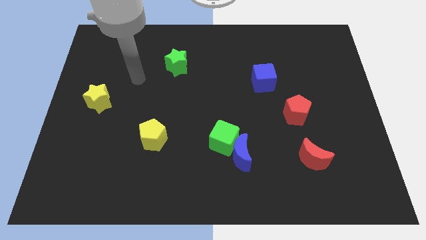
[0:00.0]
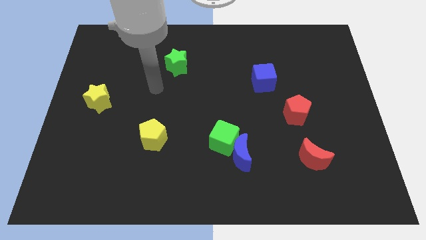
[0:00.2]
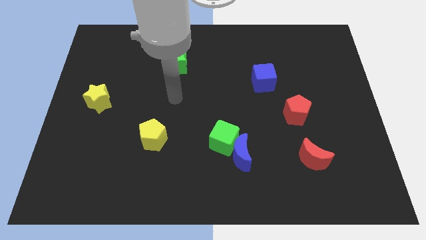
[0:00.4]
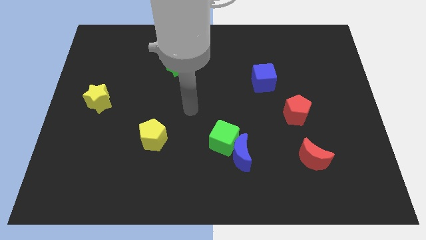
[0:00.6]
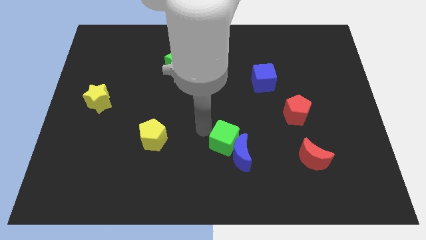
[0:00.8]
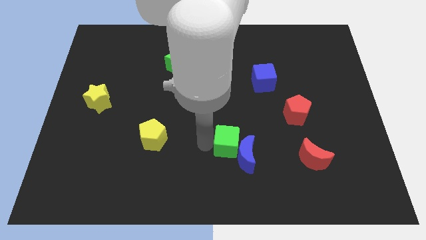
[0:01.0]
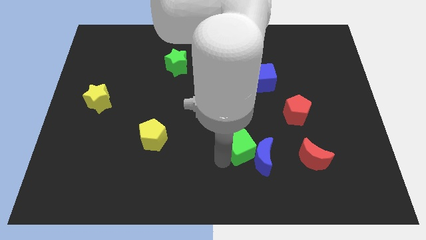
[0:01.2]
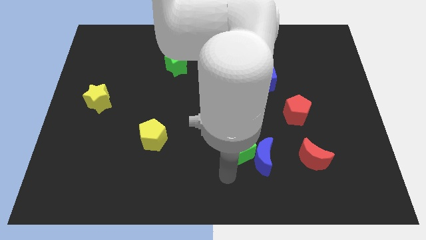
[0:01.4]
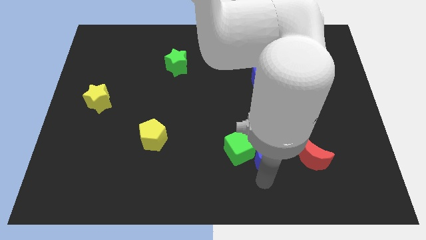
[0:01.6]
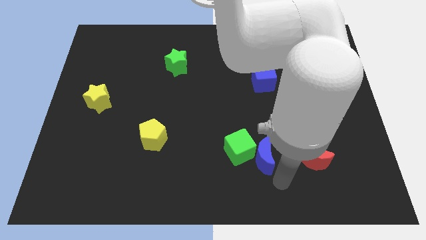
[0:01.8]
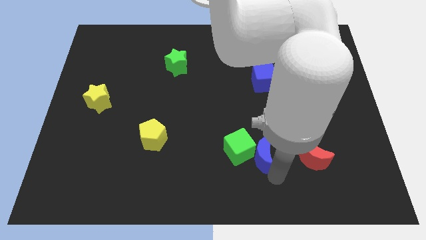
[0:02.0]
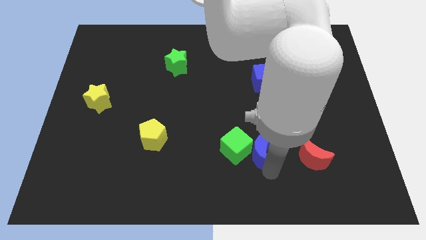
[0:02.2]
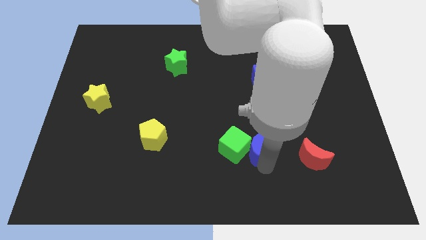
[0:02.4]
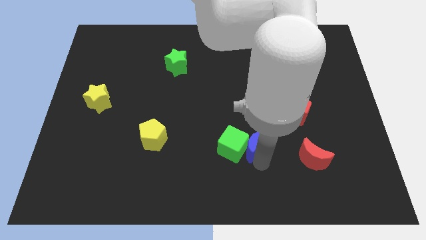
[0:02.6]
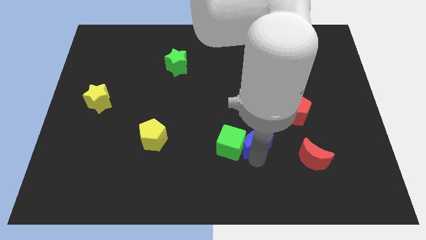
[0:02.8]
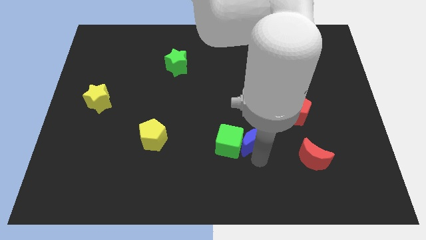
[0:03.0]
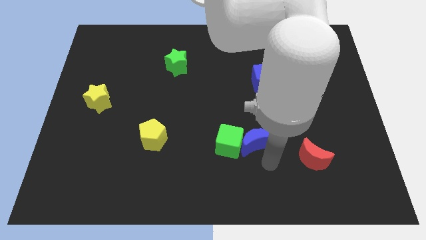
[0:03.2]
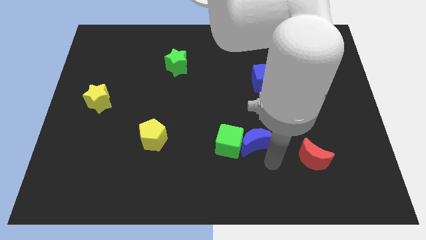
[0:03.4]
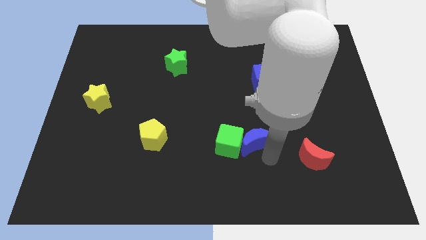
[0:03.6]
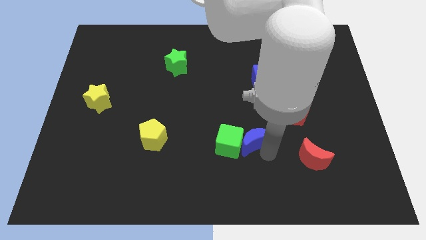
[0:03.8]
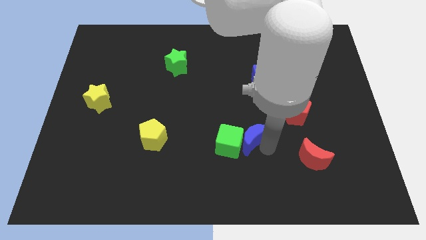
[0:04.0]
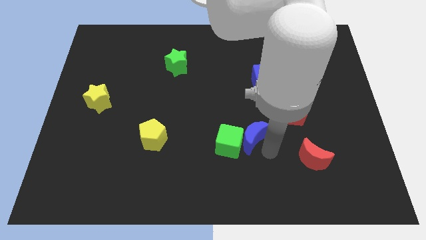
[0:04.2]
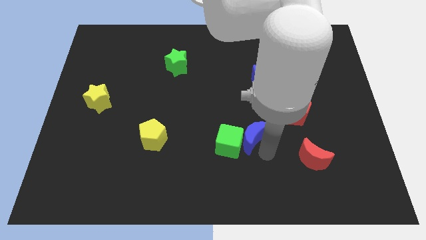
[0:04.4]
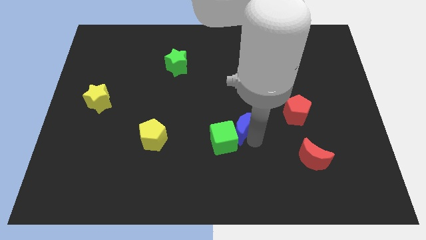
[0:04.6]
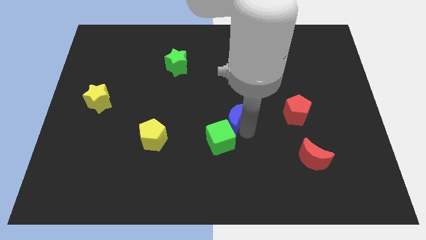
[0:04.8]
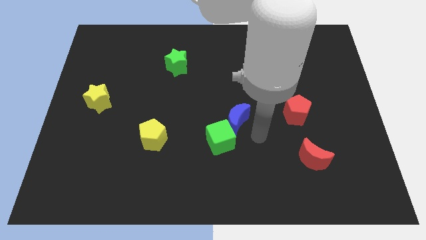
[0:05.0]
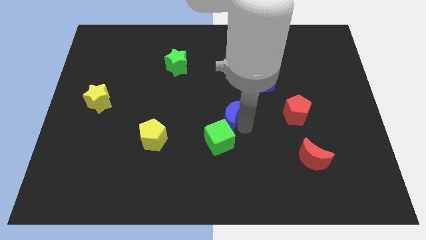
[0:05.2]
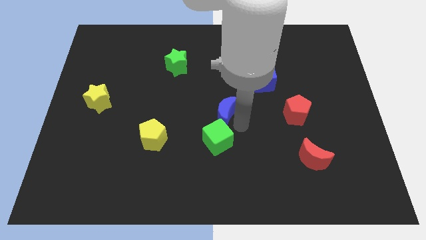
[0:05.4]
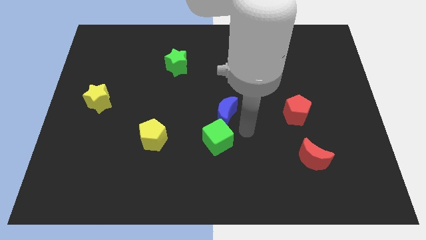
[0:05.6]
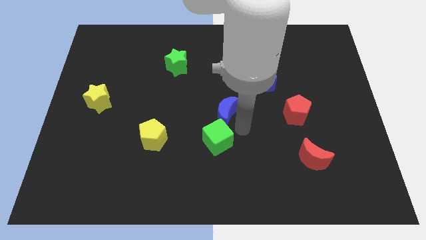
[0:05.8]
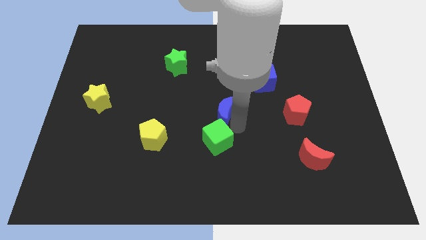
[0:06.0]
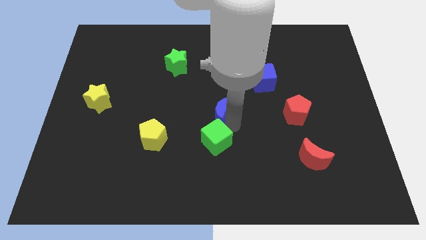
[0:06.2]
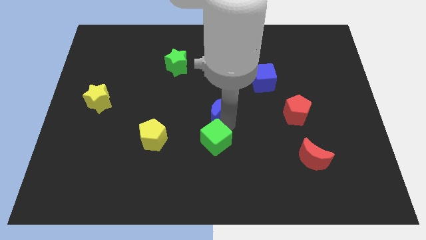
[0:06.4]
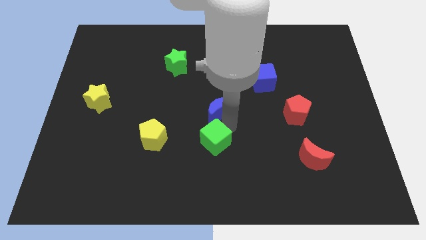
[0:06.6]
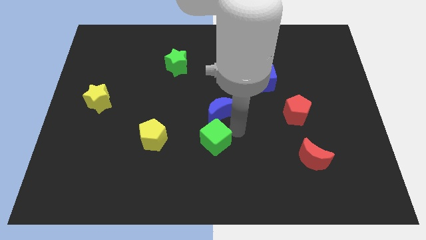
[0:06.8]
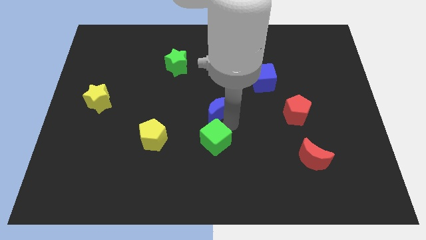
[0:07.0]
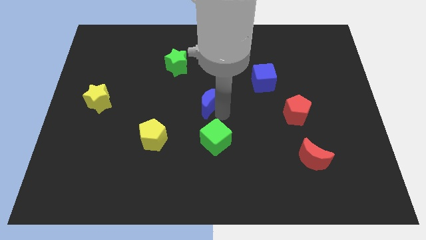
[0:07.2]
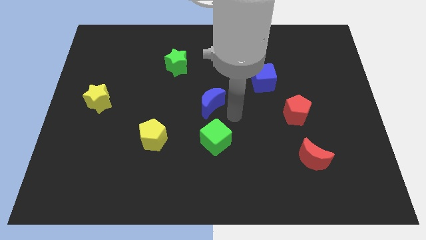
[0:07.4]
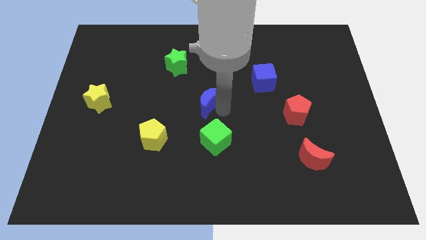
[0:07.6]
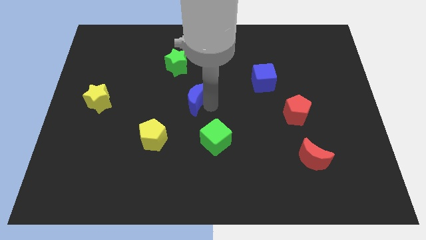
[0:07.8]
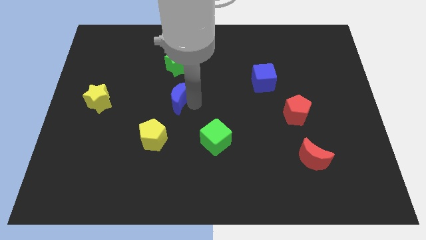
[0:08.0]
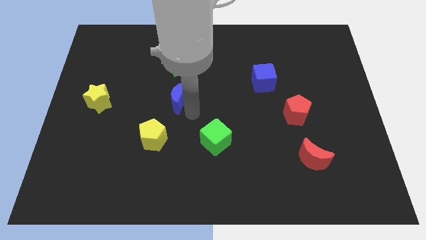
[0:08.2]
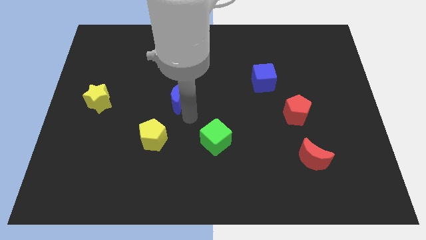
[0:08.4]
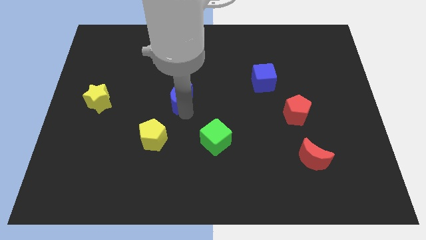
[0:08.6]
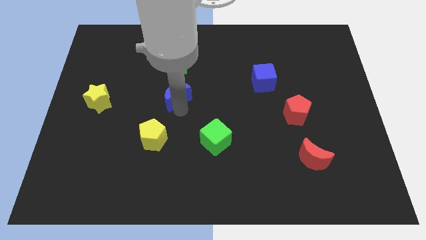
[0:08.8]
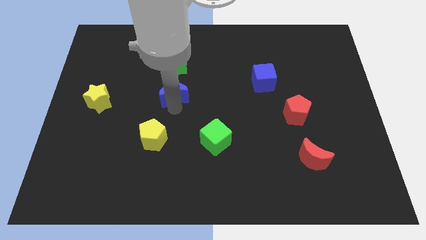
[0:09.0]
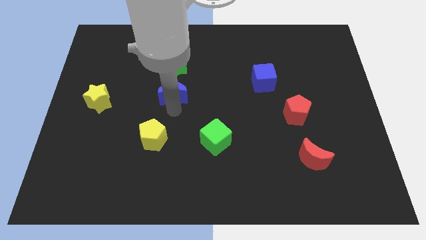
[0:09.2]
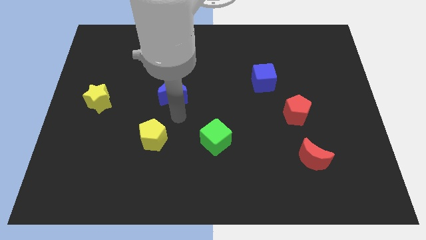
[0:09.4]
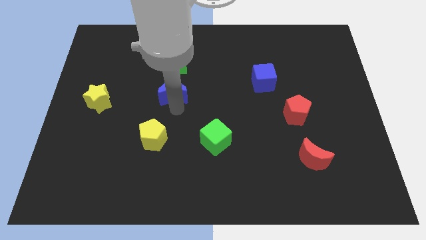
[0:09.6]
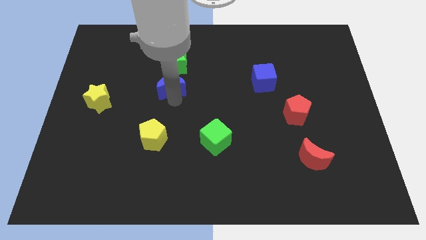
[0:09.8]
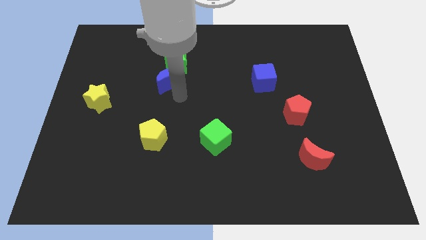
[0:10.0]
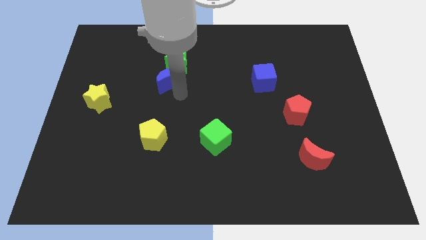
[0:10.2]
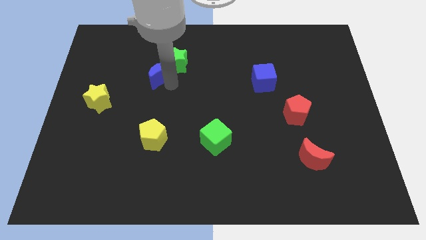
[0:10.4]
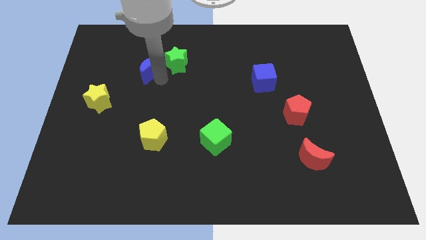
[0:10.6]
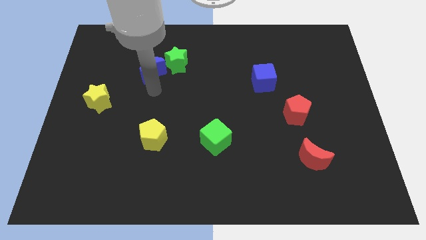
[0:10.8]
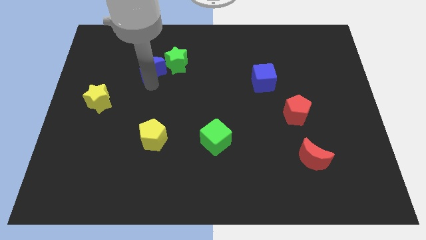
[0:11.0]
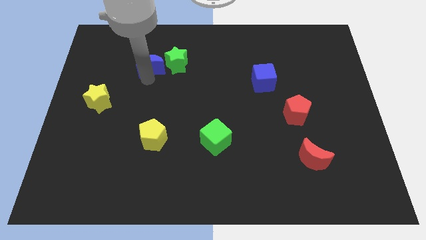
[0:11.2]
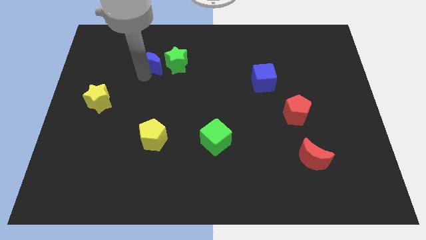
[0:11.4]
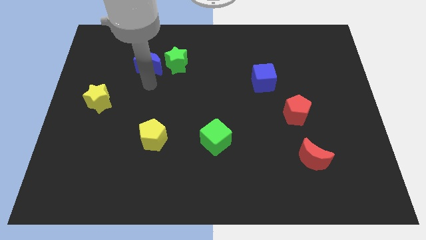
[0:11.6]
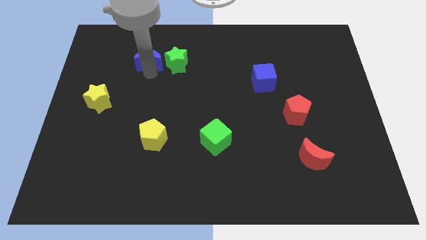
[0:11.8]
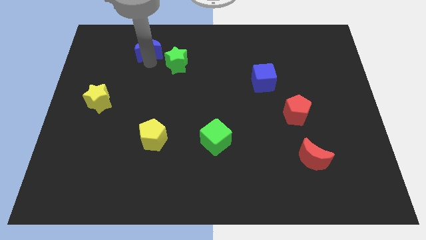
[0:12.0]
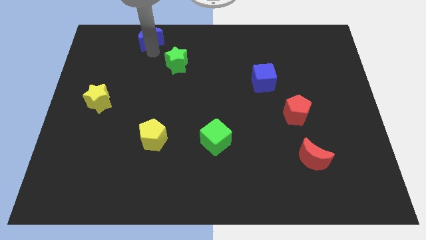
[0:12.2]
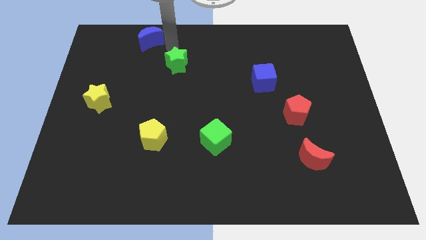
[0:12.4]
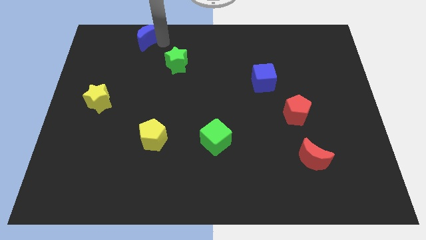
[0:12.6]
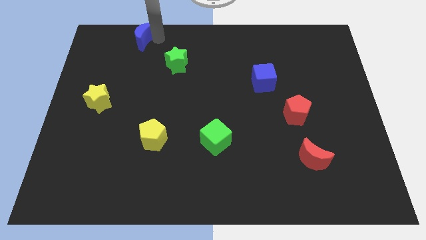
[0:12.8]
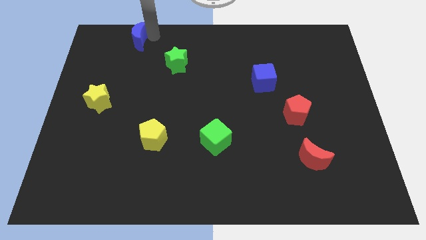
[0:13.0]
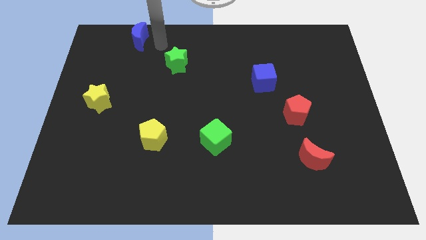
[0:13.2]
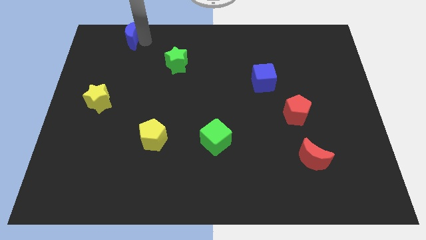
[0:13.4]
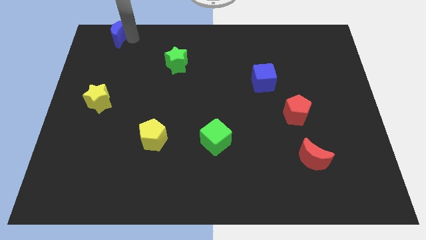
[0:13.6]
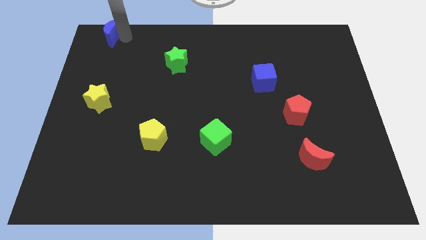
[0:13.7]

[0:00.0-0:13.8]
put the blue moon to the upper left corner

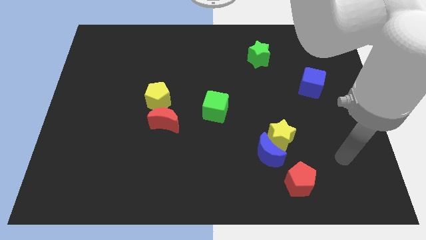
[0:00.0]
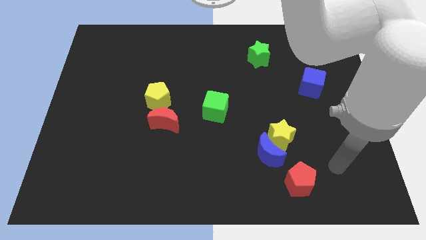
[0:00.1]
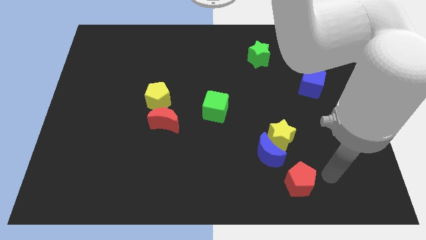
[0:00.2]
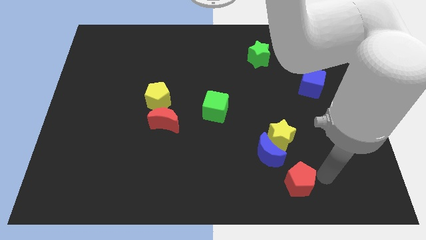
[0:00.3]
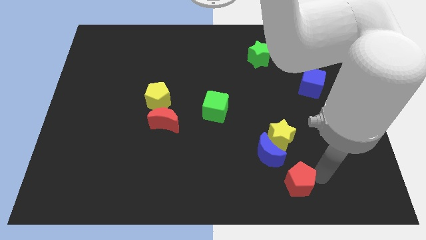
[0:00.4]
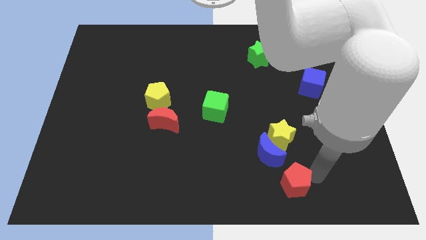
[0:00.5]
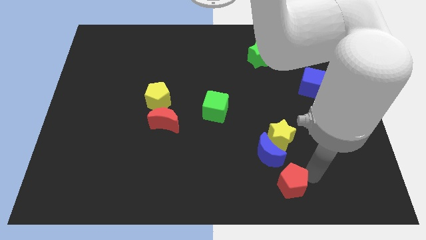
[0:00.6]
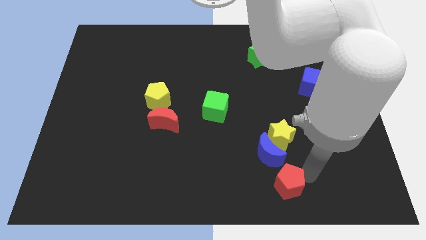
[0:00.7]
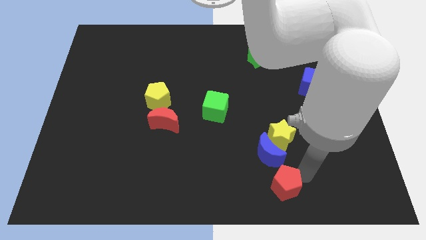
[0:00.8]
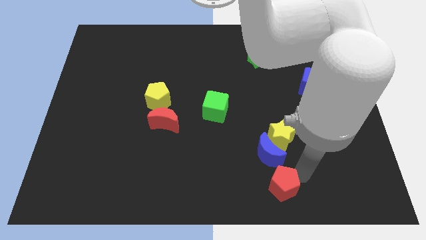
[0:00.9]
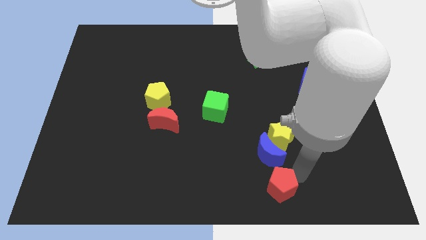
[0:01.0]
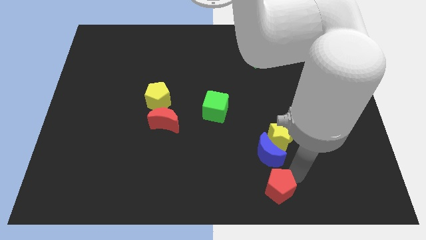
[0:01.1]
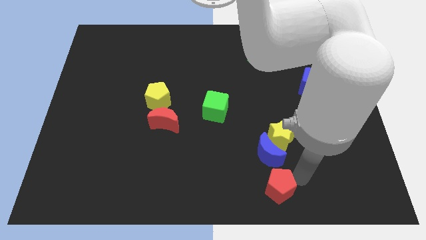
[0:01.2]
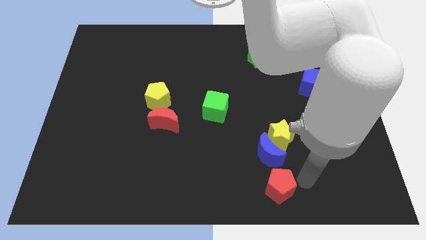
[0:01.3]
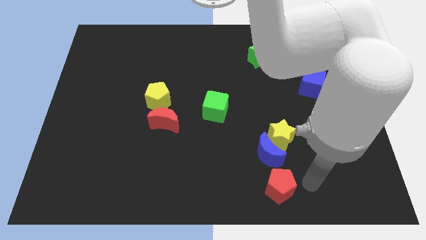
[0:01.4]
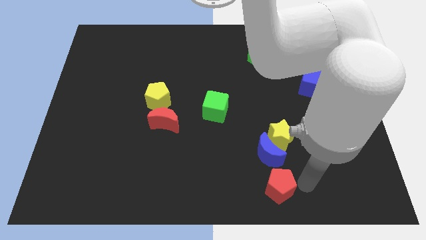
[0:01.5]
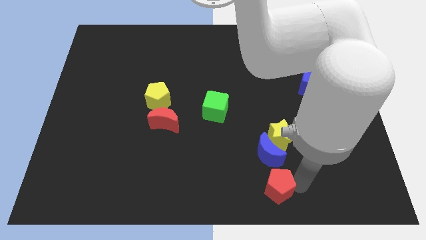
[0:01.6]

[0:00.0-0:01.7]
push the red pentagon to the bottom
